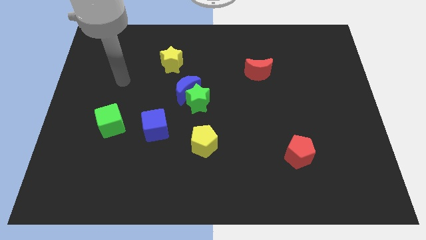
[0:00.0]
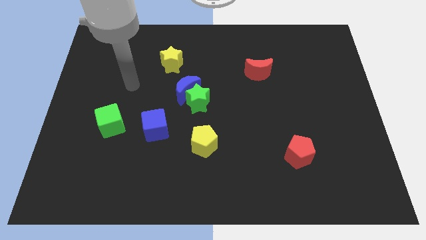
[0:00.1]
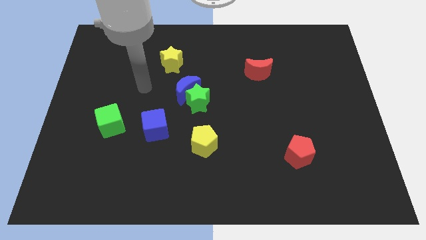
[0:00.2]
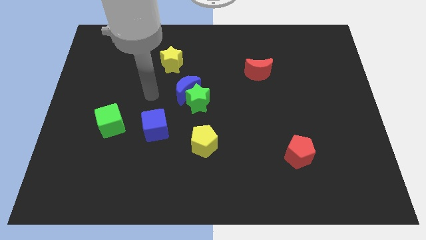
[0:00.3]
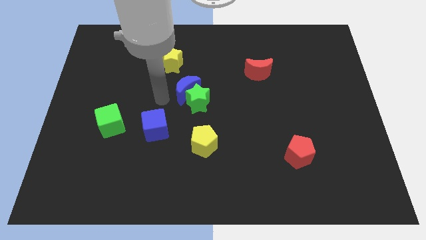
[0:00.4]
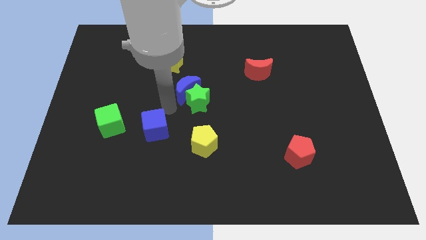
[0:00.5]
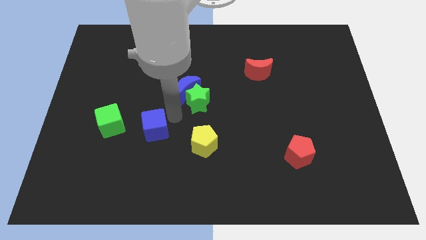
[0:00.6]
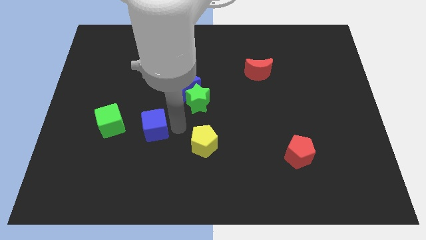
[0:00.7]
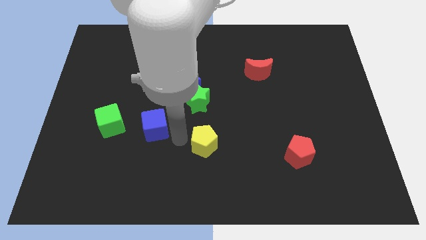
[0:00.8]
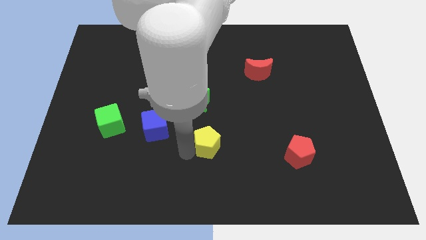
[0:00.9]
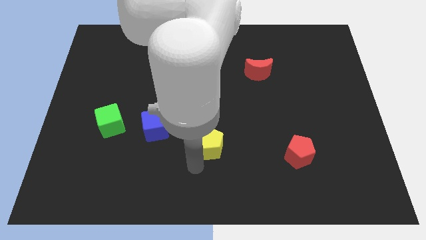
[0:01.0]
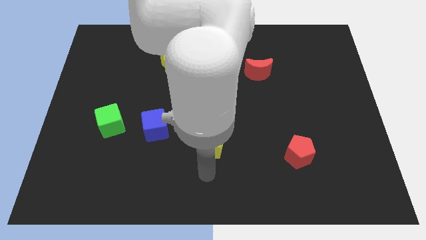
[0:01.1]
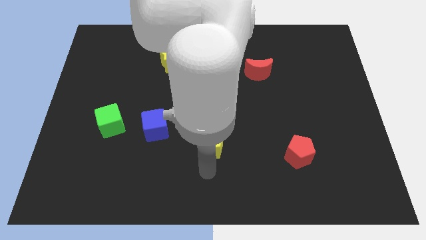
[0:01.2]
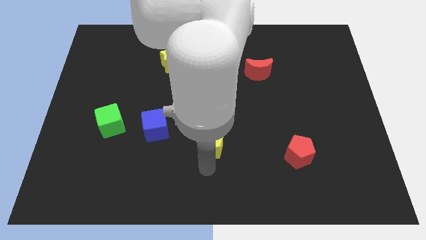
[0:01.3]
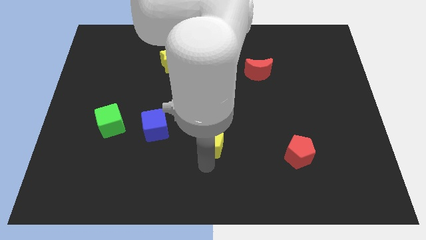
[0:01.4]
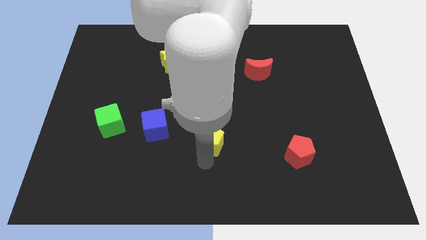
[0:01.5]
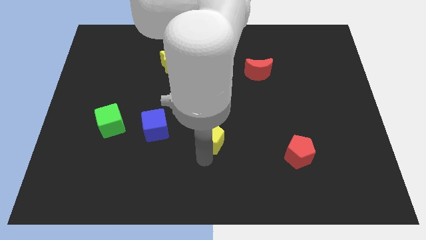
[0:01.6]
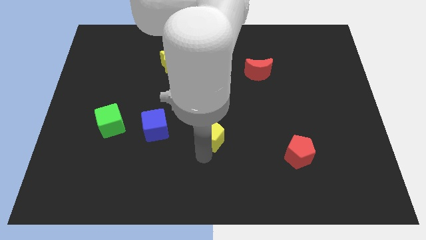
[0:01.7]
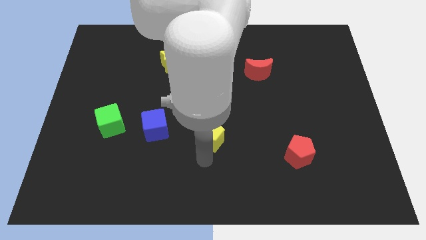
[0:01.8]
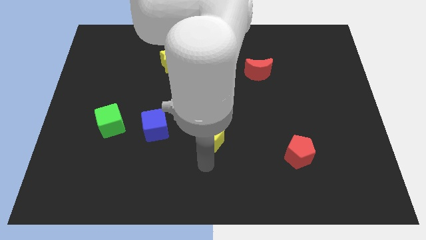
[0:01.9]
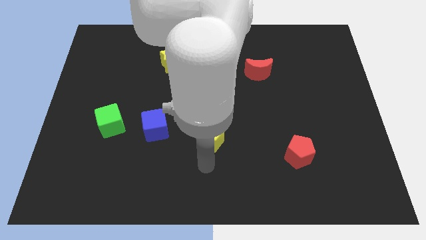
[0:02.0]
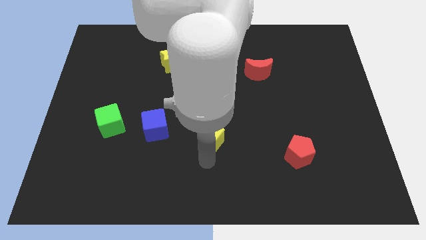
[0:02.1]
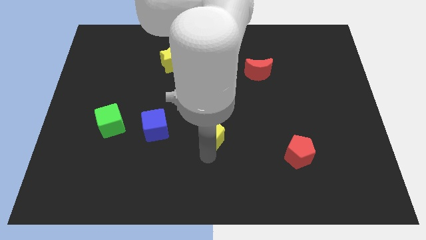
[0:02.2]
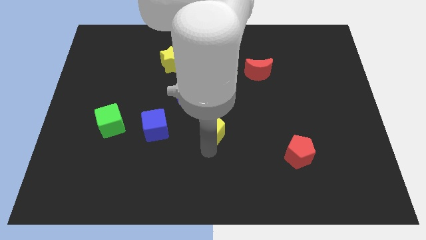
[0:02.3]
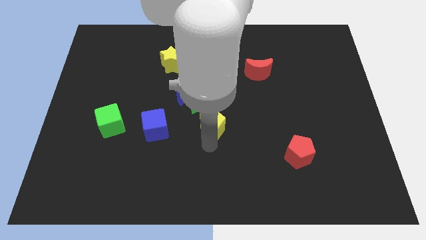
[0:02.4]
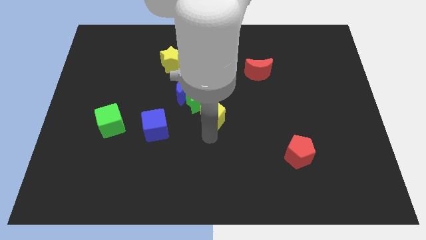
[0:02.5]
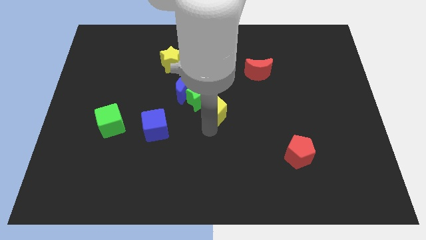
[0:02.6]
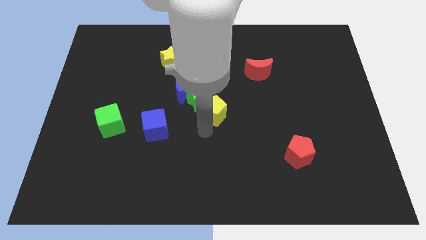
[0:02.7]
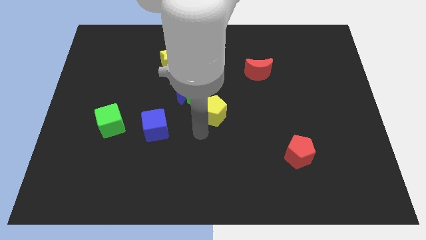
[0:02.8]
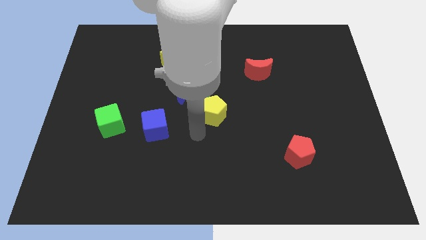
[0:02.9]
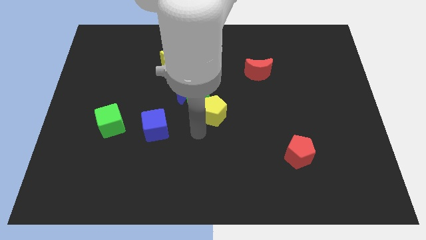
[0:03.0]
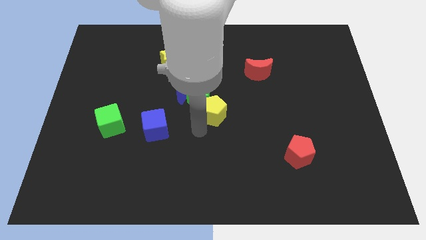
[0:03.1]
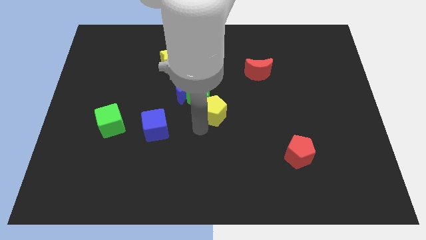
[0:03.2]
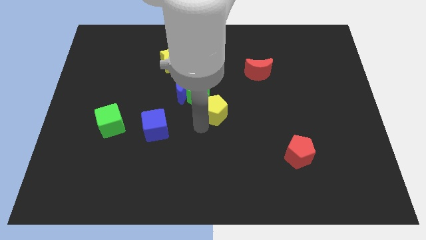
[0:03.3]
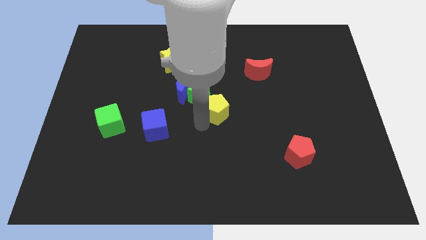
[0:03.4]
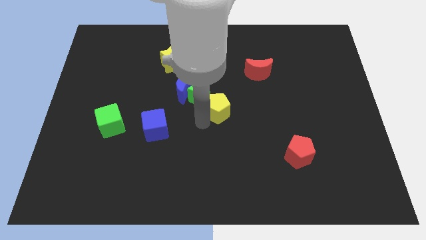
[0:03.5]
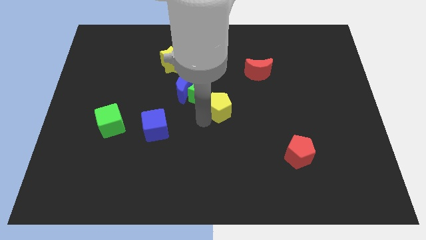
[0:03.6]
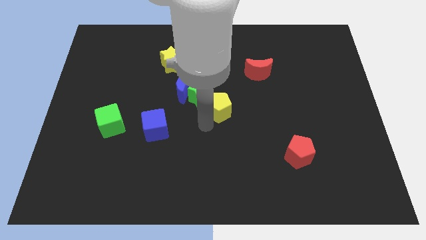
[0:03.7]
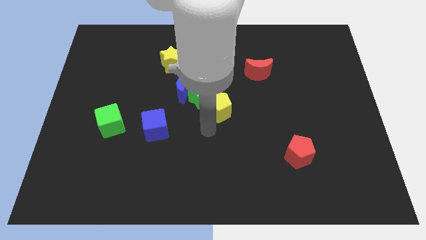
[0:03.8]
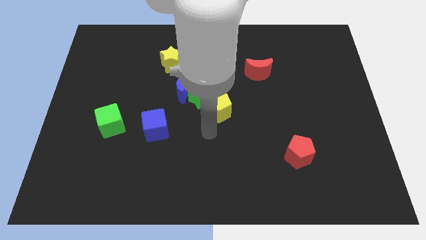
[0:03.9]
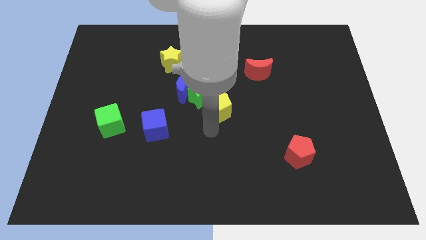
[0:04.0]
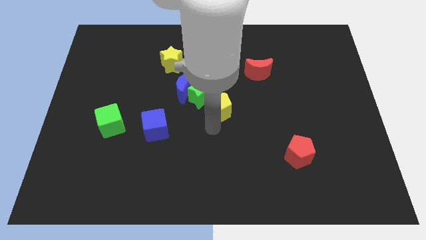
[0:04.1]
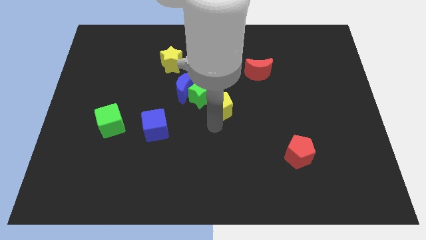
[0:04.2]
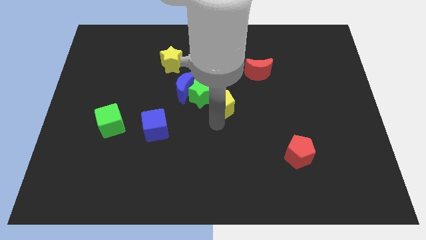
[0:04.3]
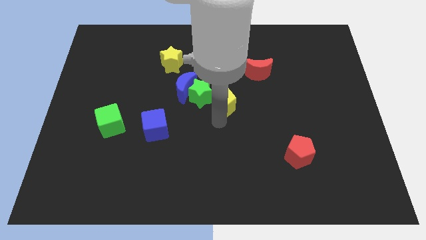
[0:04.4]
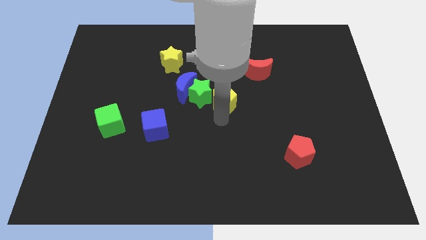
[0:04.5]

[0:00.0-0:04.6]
slide the yellow pentagon to the right side of the blue moon

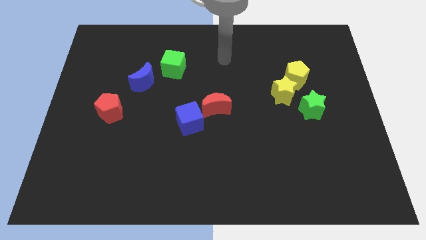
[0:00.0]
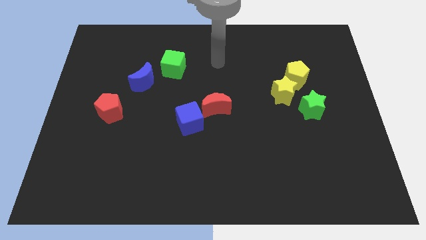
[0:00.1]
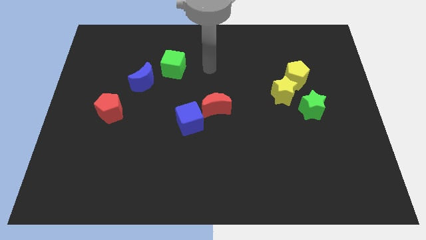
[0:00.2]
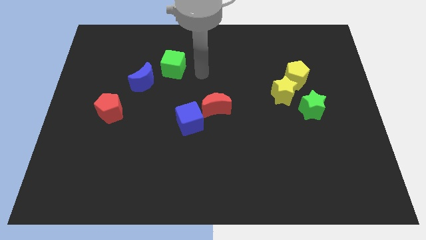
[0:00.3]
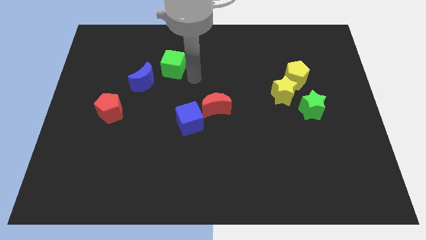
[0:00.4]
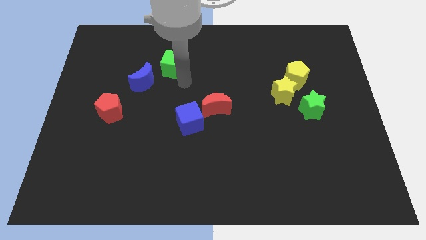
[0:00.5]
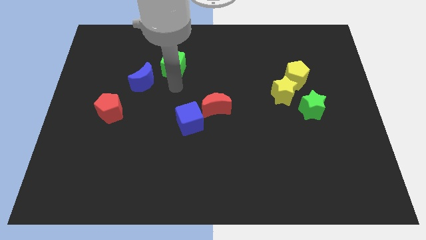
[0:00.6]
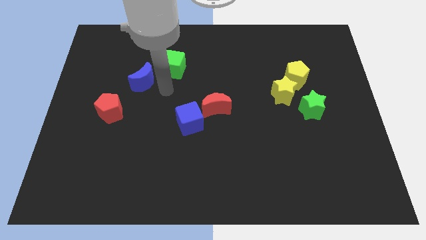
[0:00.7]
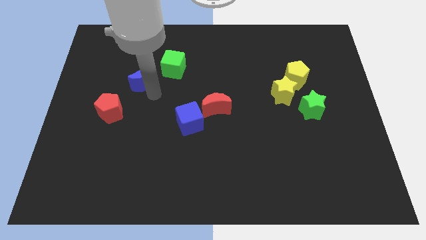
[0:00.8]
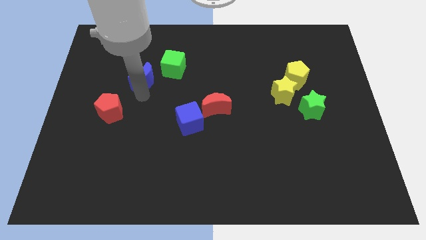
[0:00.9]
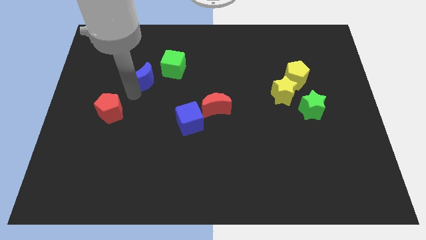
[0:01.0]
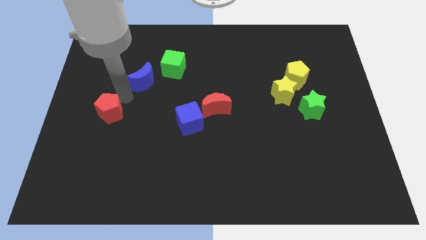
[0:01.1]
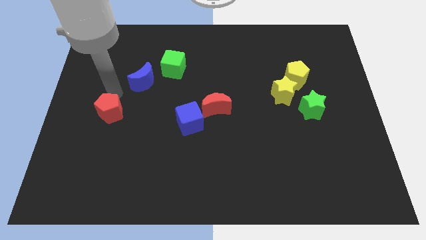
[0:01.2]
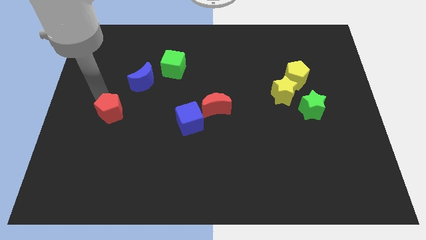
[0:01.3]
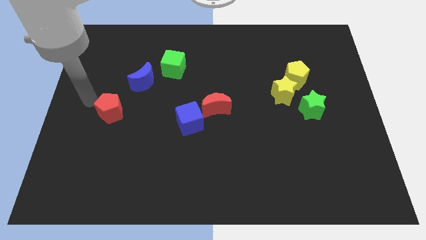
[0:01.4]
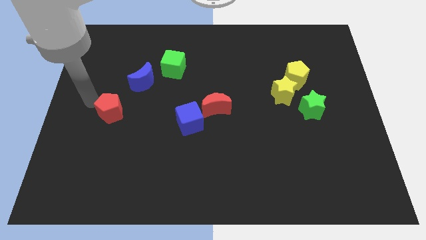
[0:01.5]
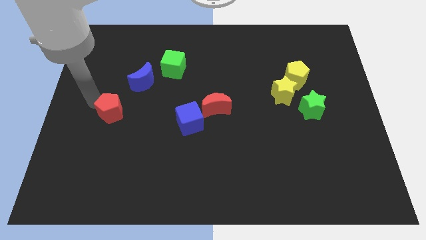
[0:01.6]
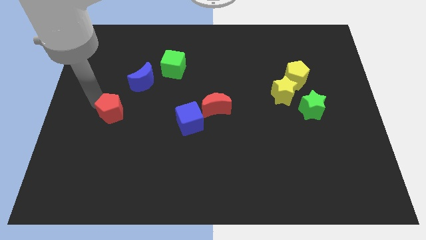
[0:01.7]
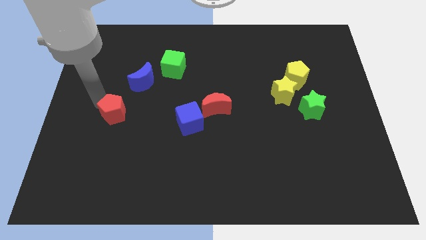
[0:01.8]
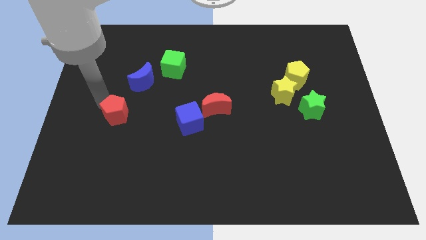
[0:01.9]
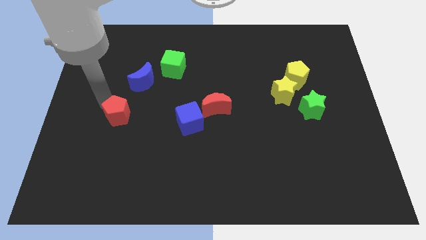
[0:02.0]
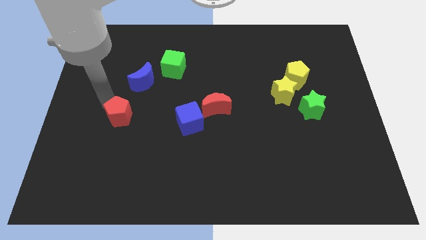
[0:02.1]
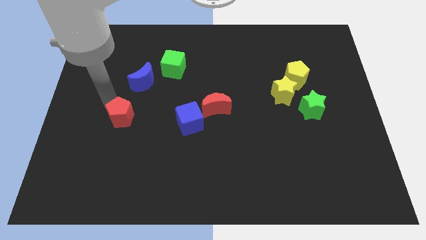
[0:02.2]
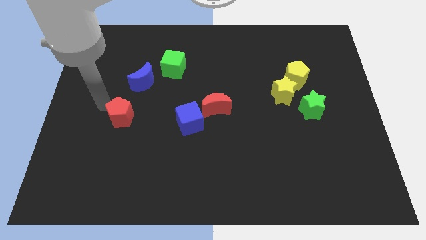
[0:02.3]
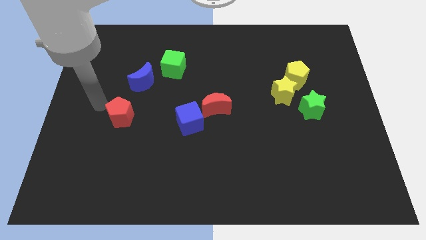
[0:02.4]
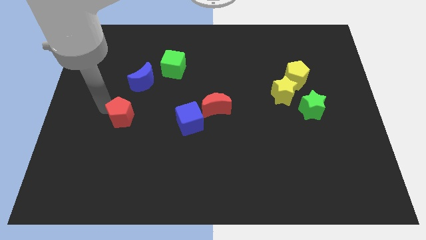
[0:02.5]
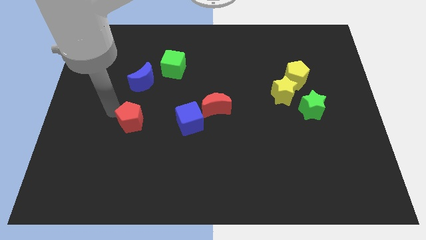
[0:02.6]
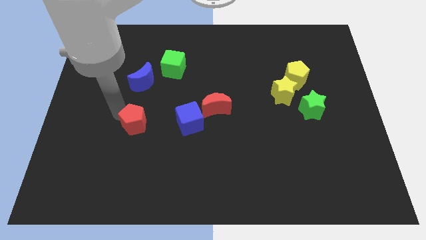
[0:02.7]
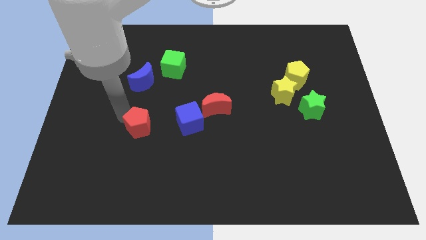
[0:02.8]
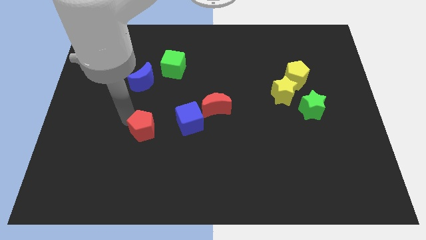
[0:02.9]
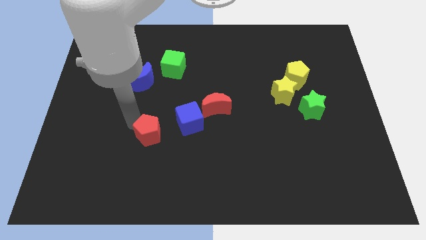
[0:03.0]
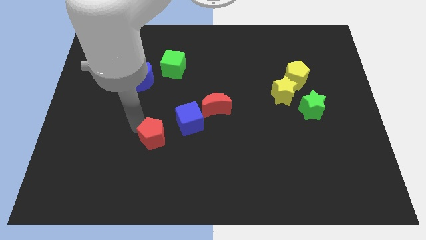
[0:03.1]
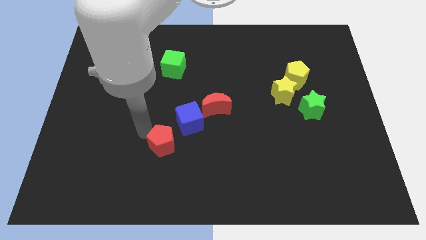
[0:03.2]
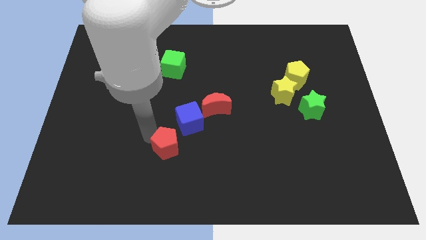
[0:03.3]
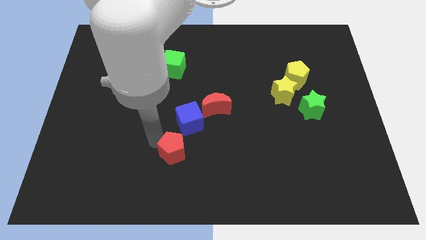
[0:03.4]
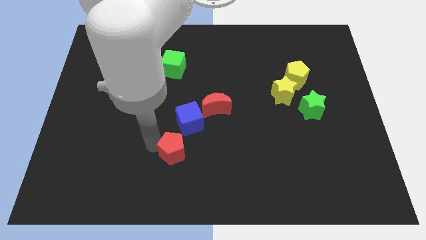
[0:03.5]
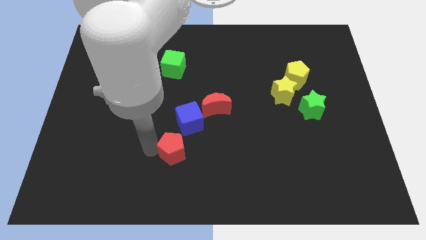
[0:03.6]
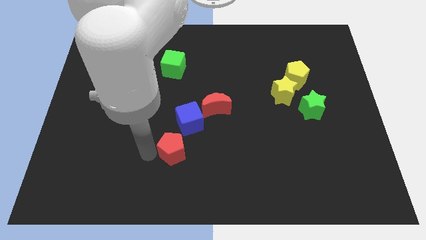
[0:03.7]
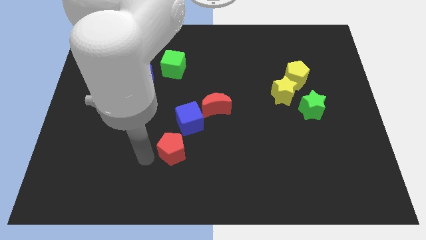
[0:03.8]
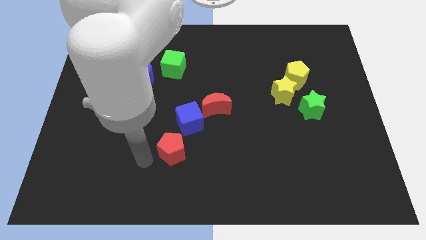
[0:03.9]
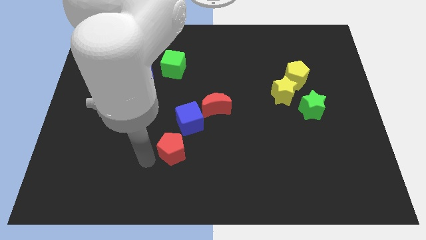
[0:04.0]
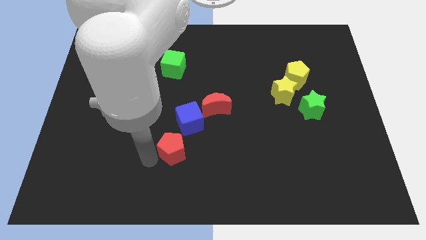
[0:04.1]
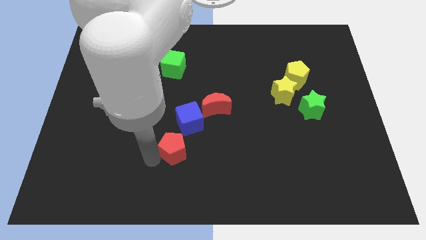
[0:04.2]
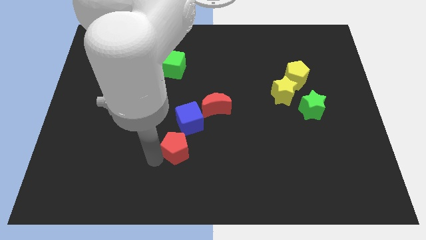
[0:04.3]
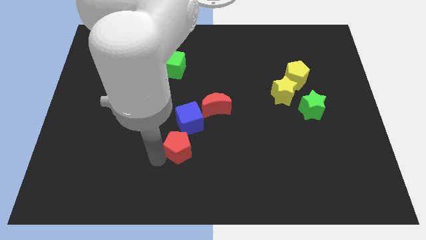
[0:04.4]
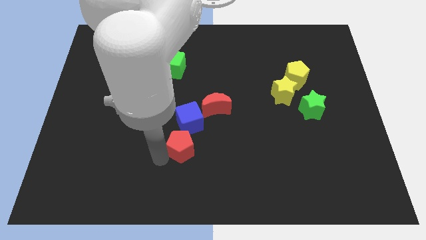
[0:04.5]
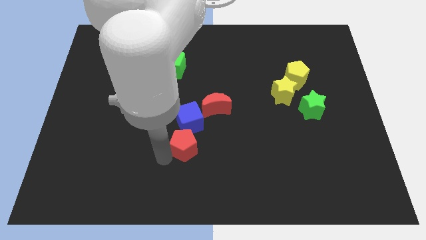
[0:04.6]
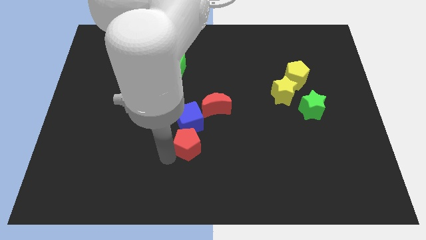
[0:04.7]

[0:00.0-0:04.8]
put the red pentagon to the bottom right side of the blue cube
